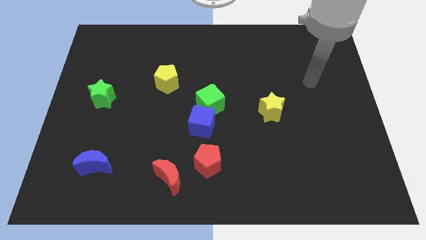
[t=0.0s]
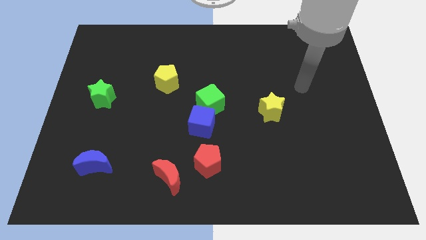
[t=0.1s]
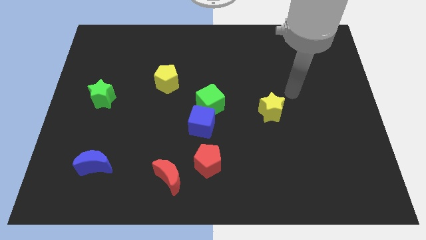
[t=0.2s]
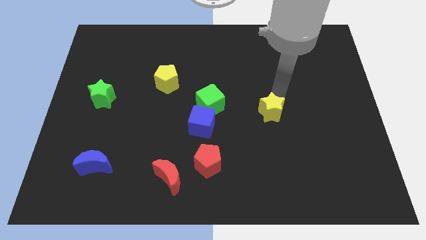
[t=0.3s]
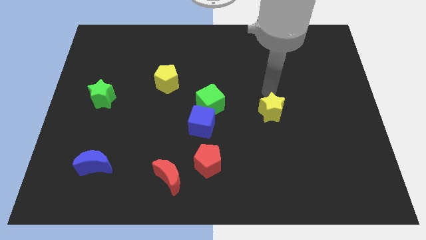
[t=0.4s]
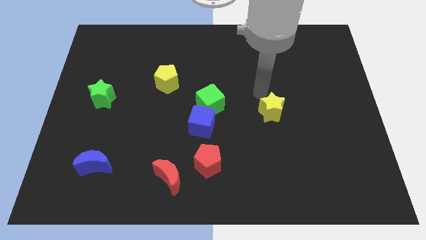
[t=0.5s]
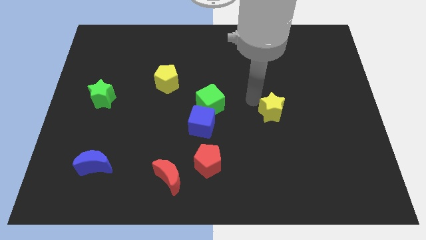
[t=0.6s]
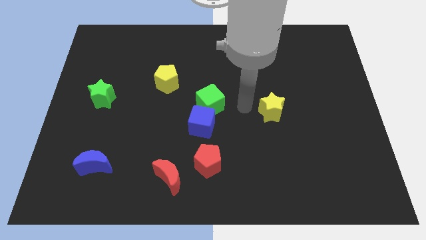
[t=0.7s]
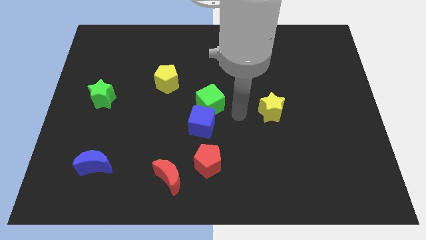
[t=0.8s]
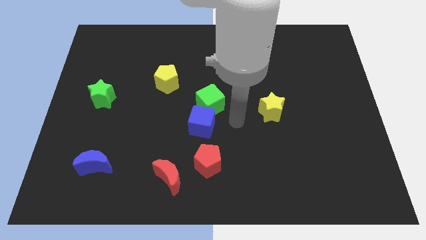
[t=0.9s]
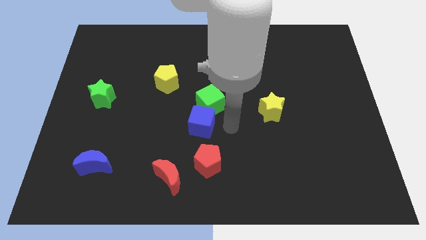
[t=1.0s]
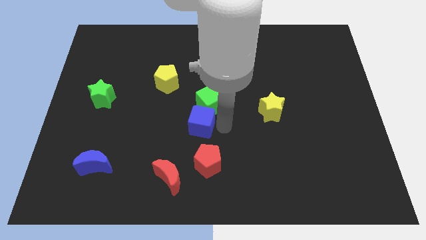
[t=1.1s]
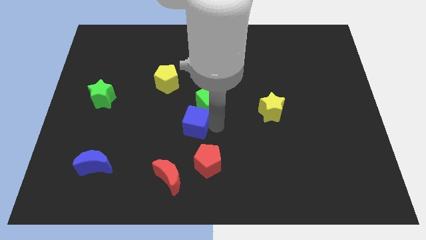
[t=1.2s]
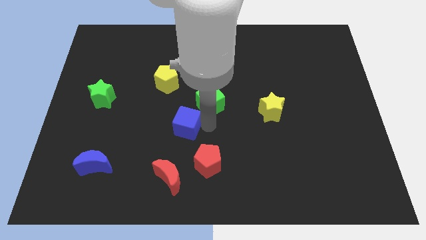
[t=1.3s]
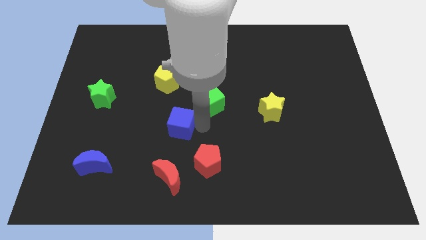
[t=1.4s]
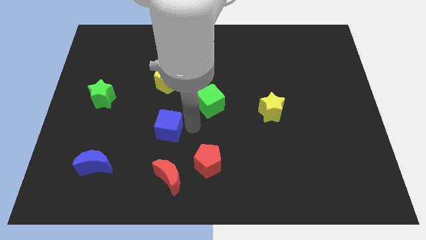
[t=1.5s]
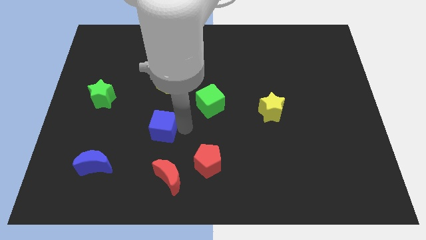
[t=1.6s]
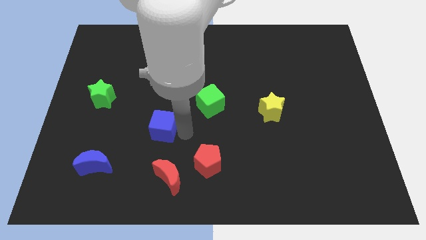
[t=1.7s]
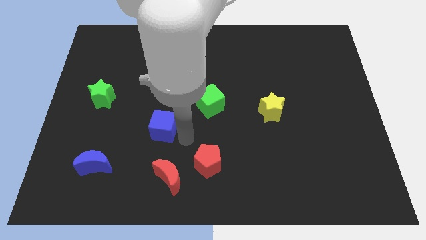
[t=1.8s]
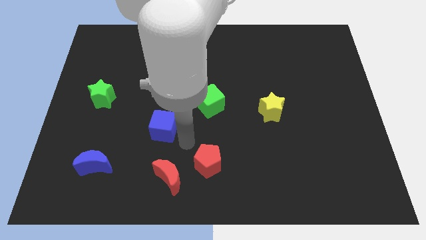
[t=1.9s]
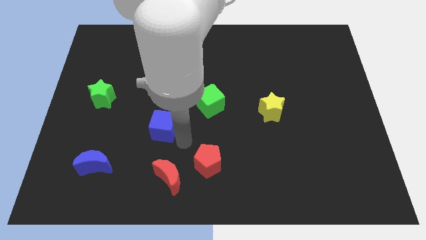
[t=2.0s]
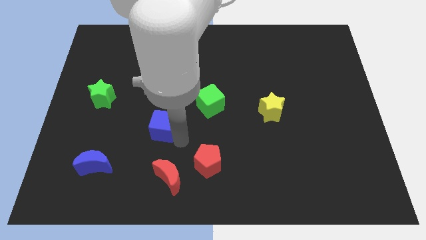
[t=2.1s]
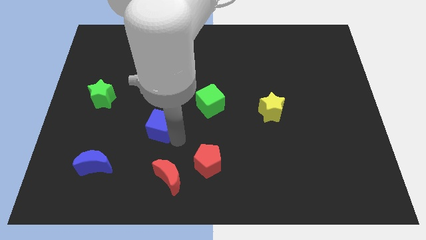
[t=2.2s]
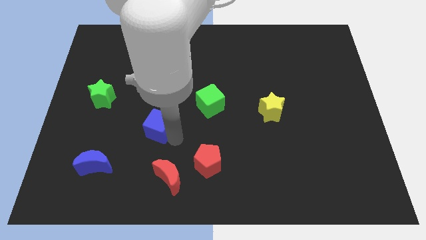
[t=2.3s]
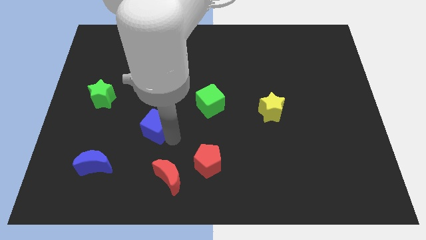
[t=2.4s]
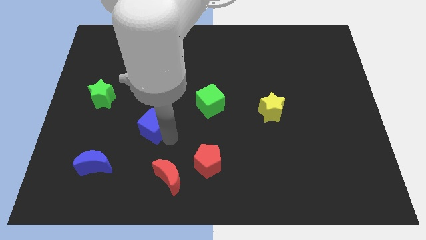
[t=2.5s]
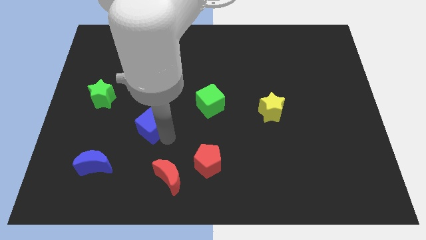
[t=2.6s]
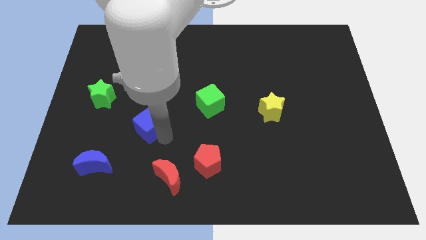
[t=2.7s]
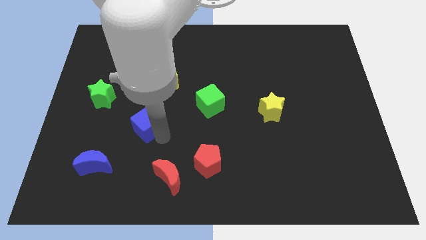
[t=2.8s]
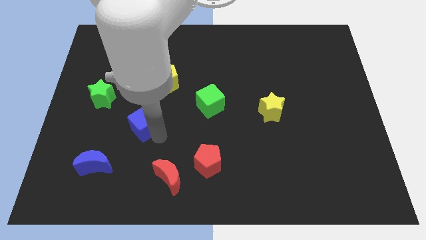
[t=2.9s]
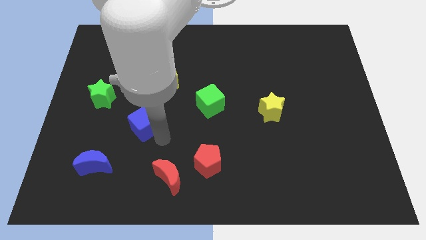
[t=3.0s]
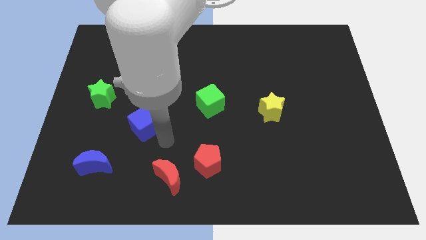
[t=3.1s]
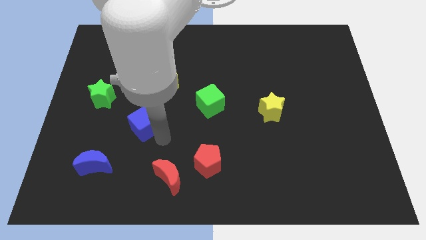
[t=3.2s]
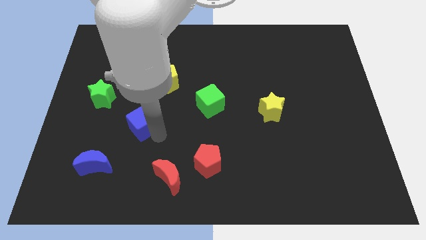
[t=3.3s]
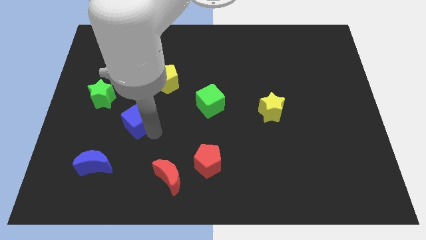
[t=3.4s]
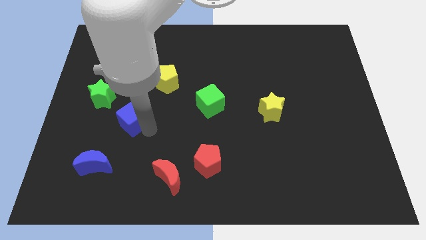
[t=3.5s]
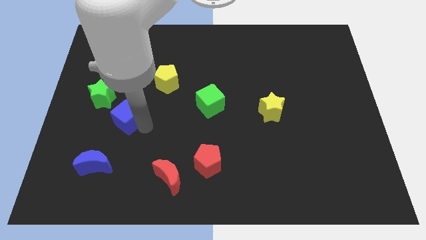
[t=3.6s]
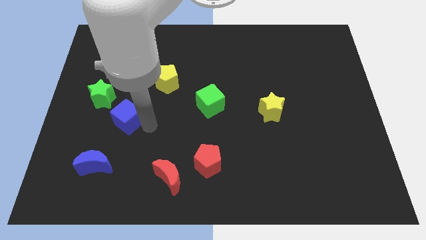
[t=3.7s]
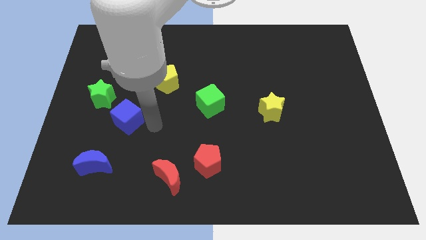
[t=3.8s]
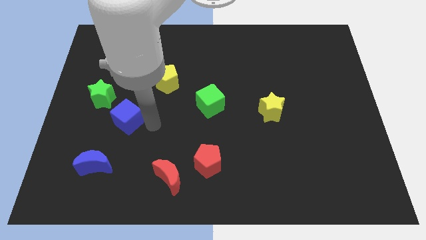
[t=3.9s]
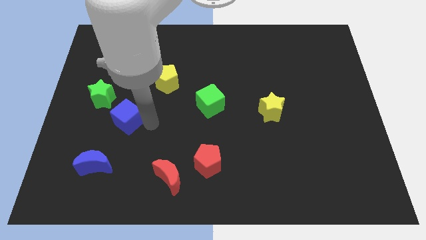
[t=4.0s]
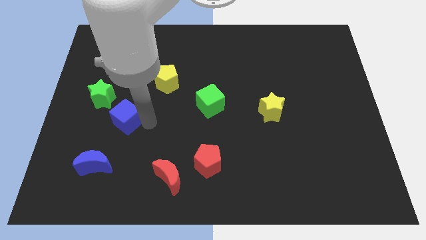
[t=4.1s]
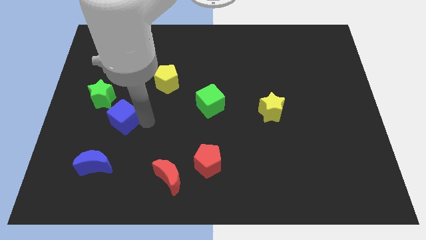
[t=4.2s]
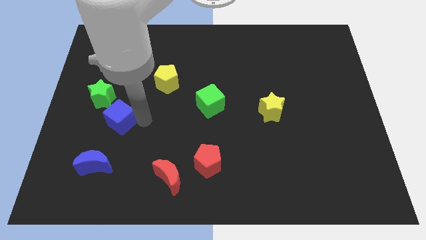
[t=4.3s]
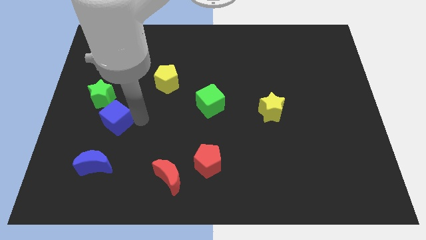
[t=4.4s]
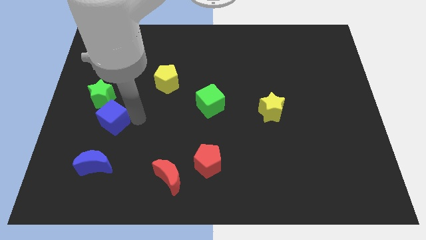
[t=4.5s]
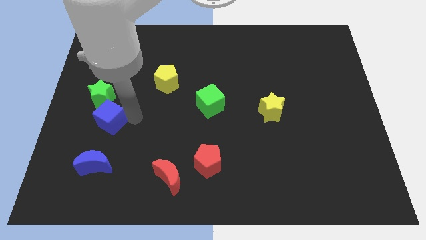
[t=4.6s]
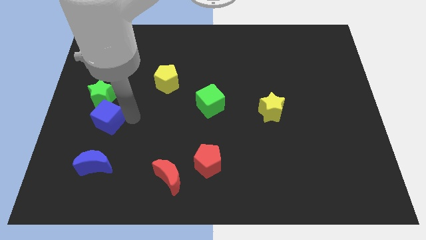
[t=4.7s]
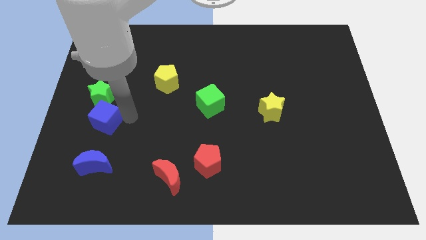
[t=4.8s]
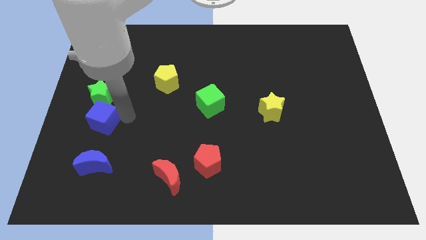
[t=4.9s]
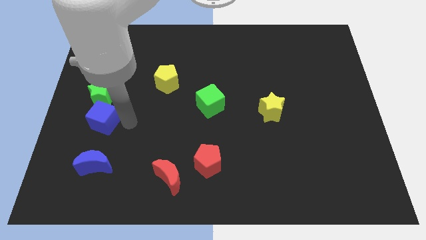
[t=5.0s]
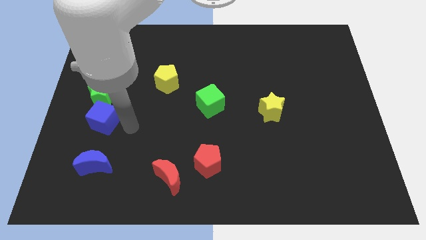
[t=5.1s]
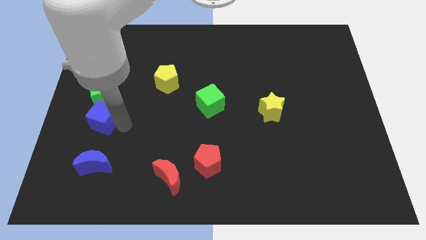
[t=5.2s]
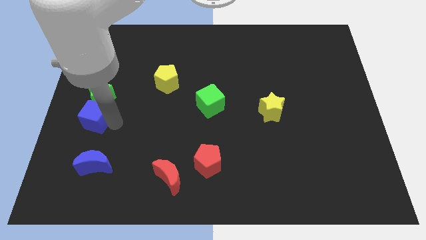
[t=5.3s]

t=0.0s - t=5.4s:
slide the blue cube to the left side
